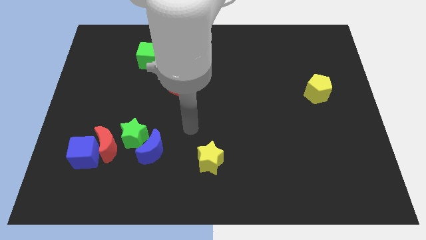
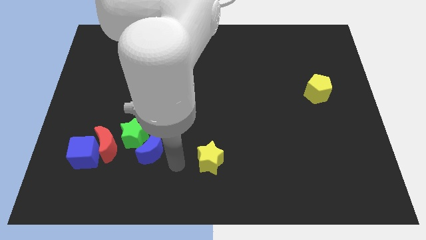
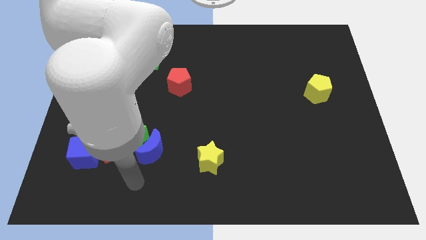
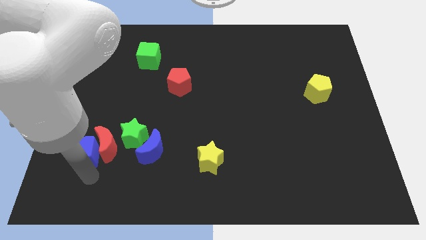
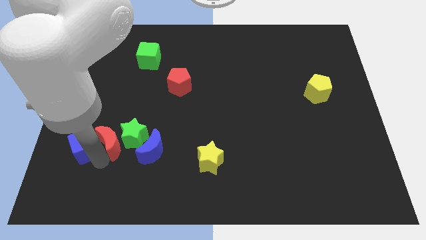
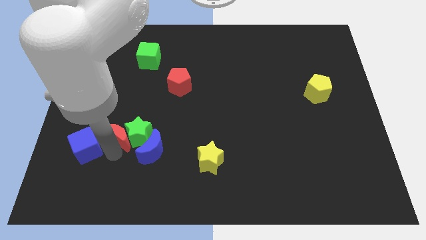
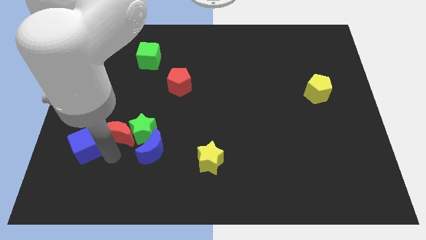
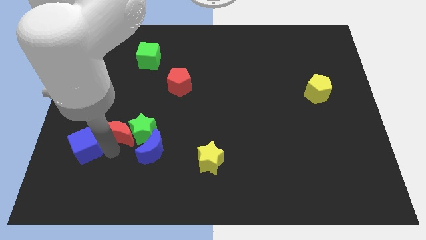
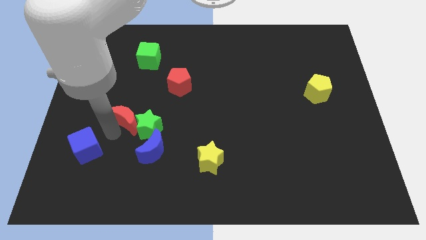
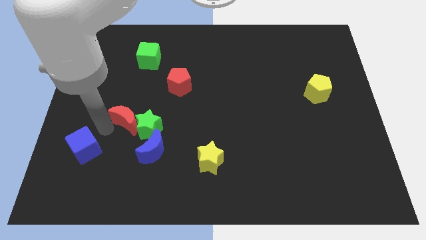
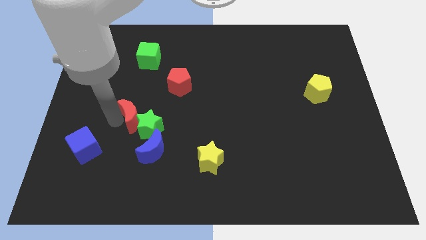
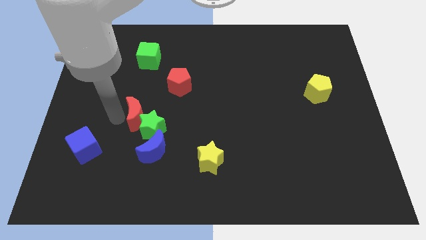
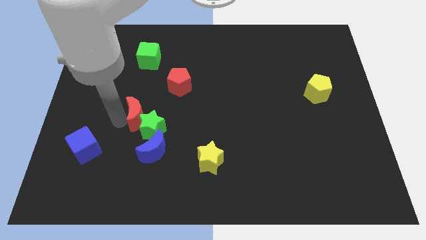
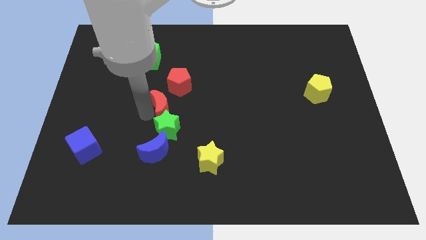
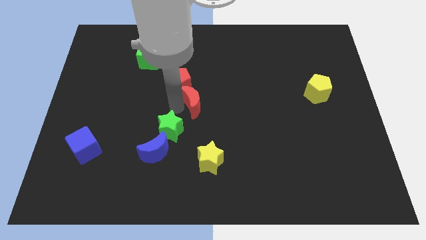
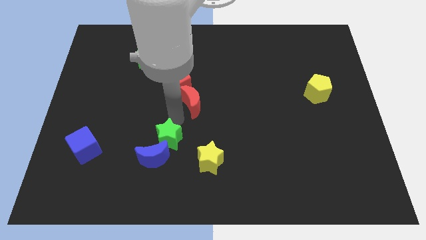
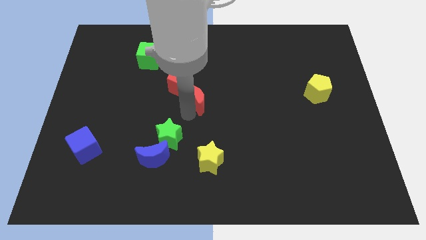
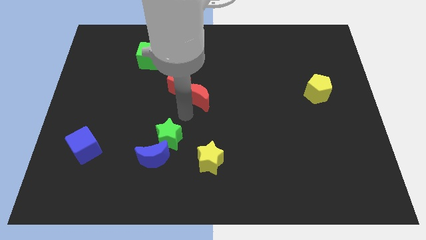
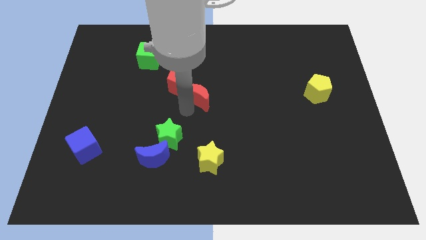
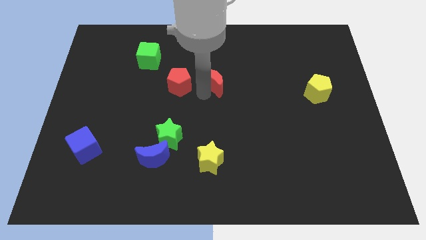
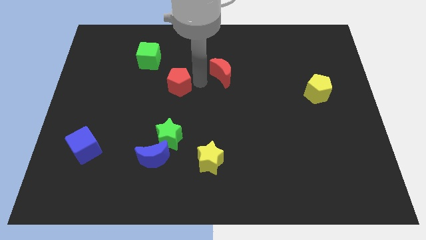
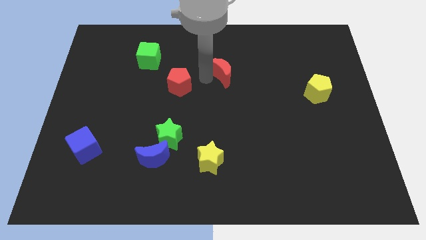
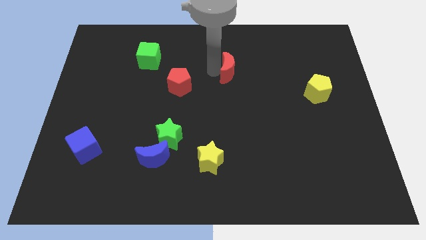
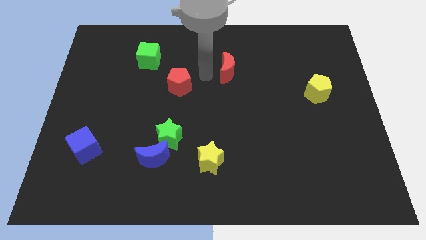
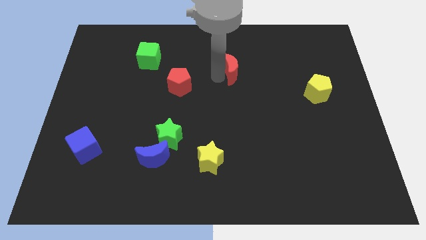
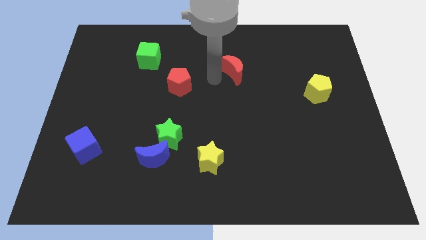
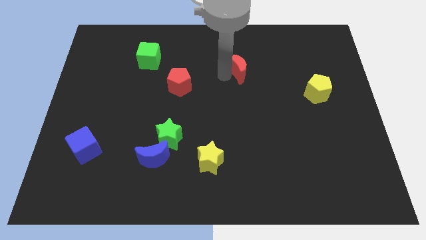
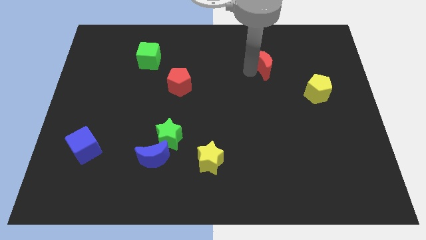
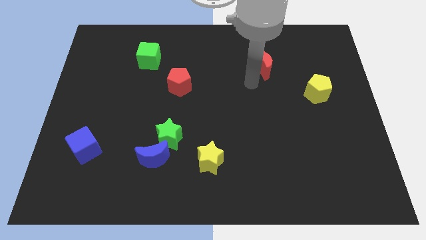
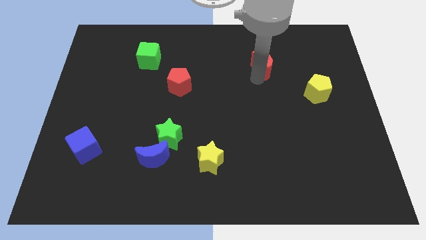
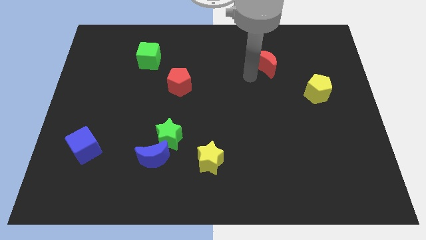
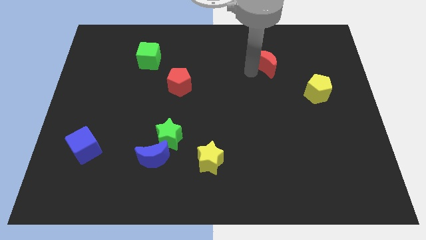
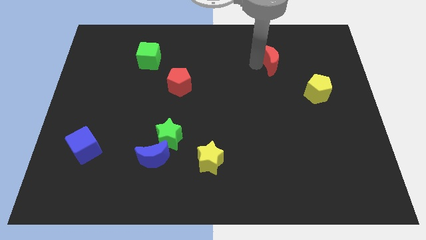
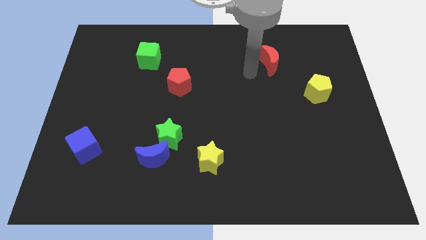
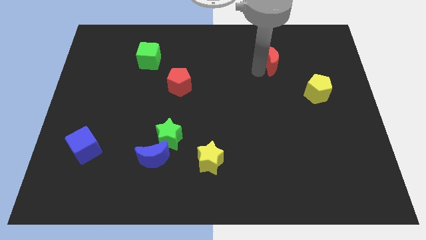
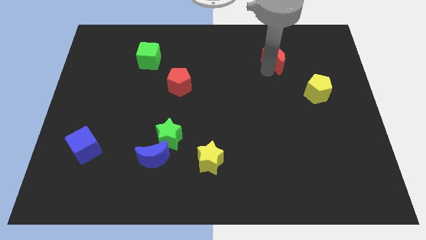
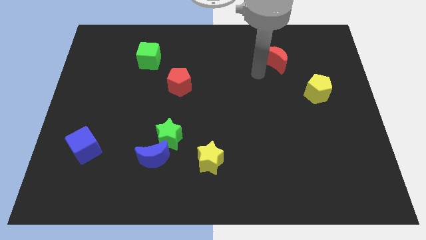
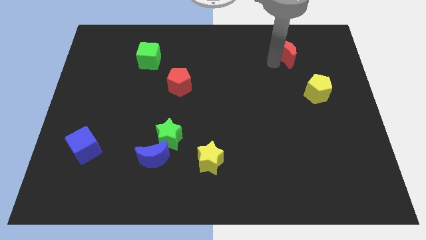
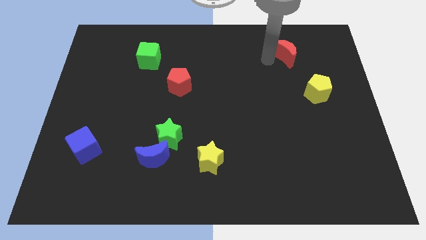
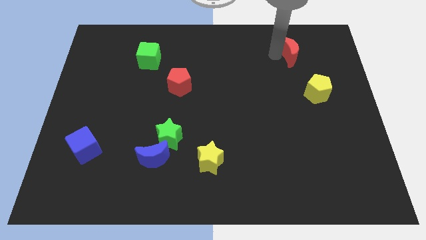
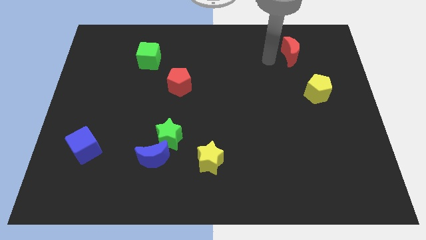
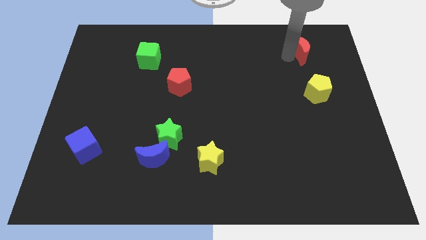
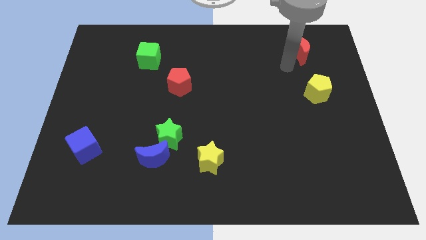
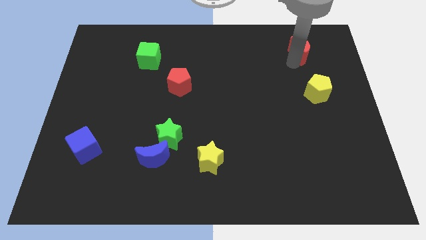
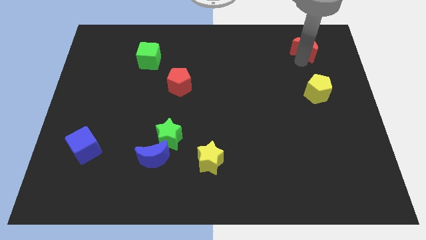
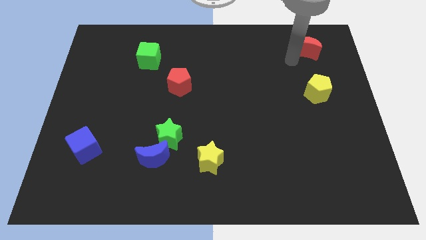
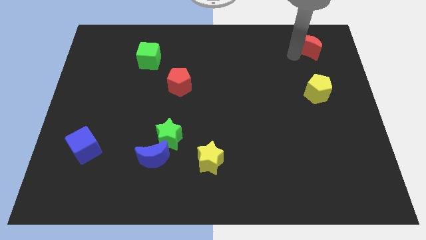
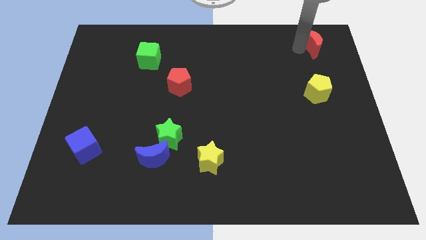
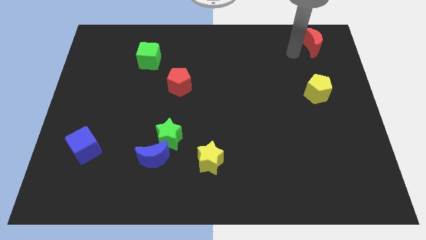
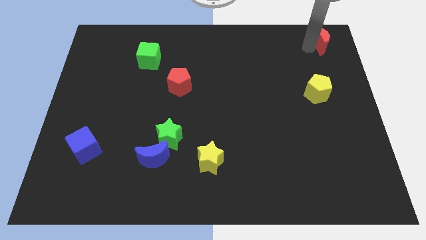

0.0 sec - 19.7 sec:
move the red moon to the top right of the board

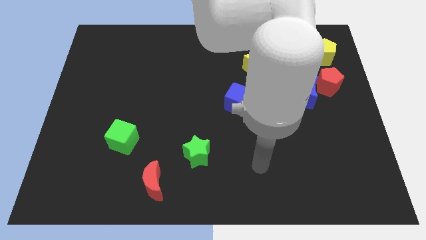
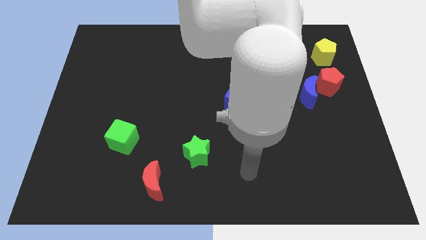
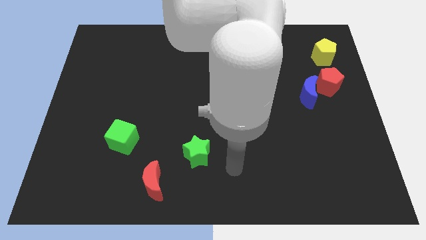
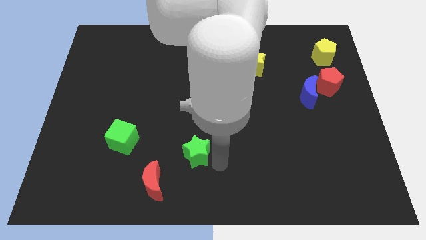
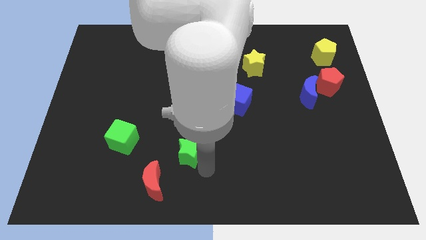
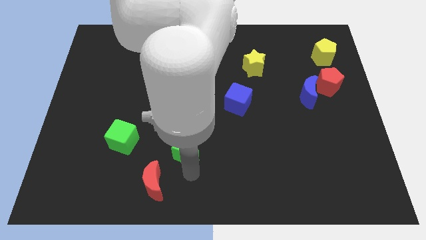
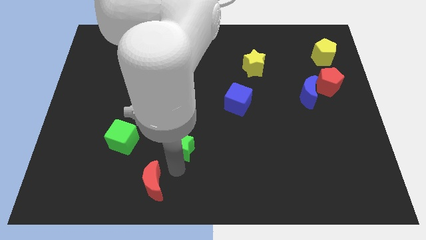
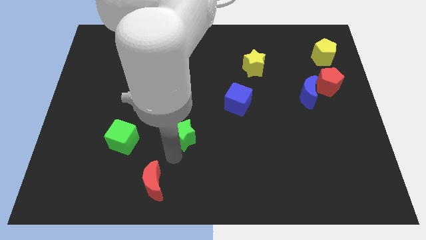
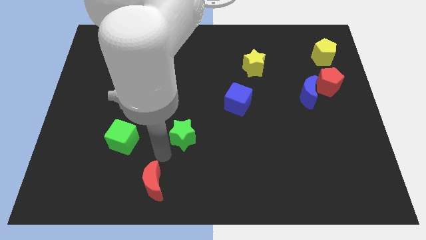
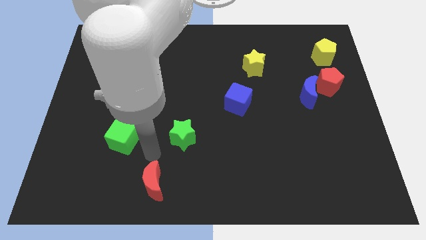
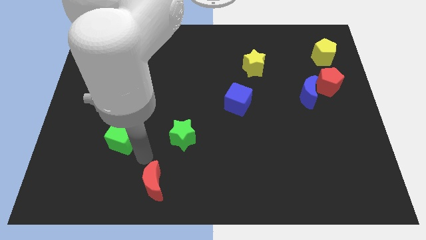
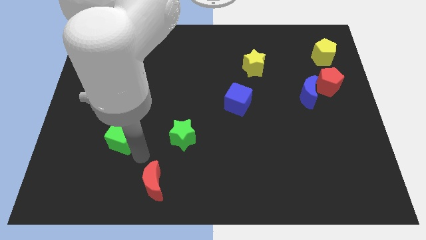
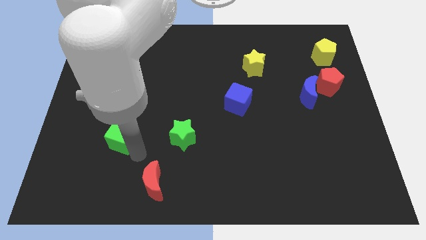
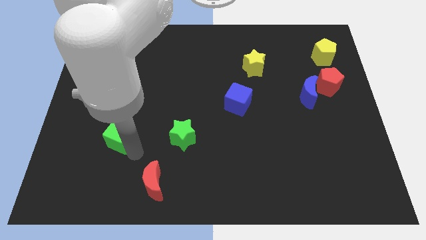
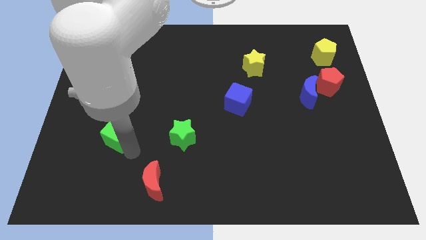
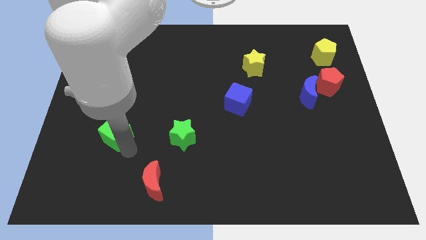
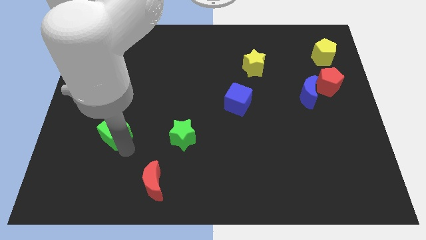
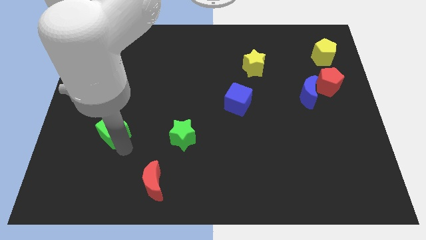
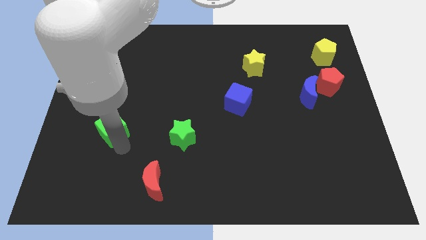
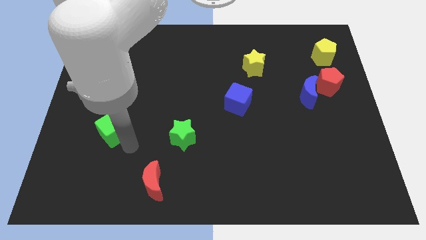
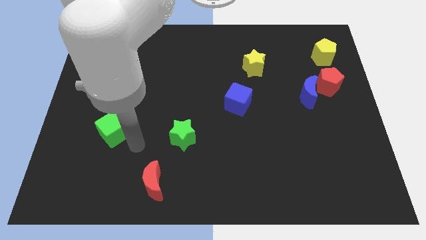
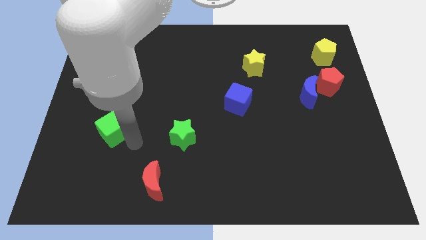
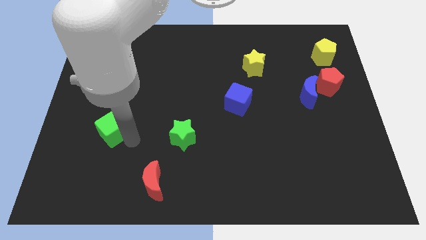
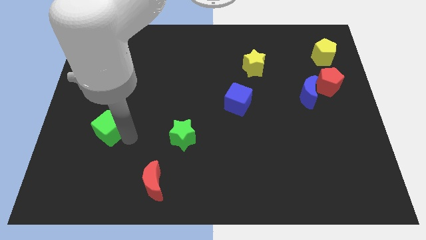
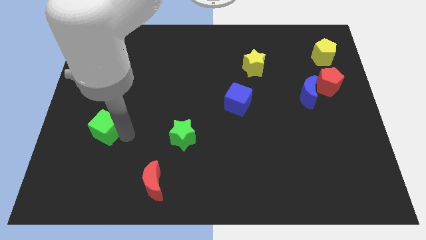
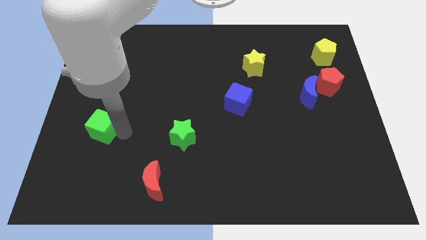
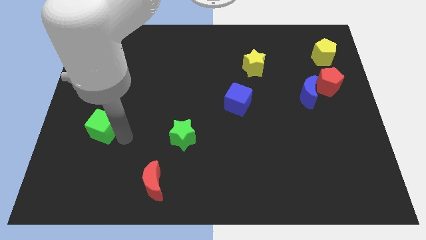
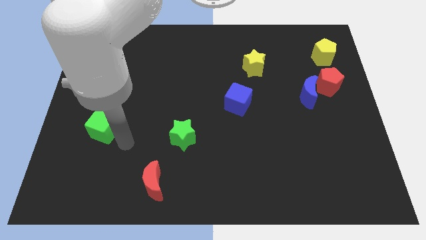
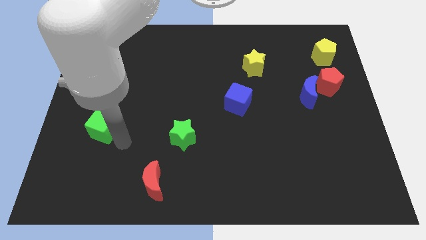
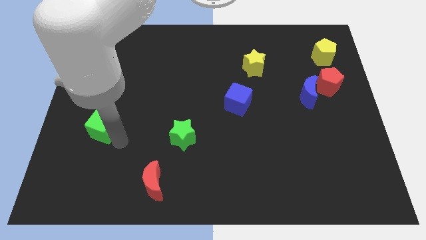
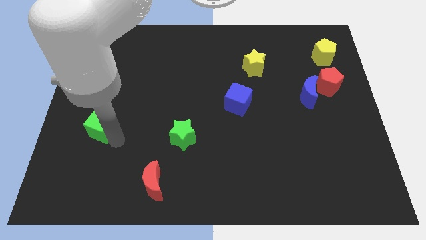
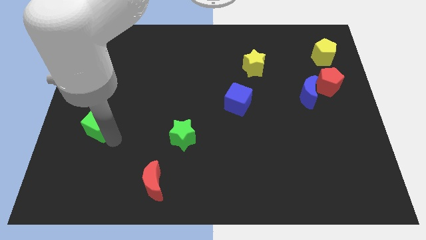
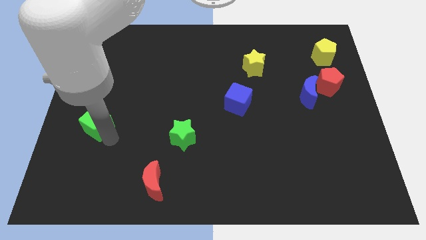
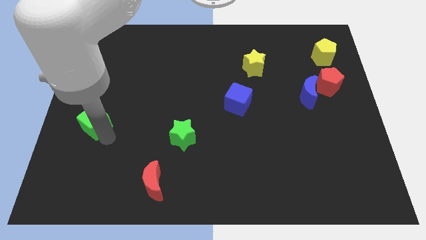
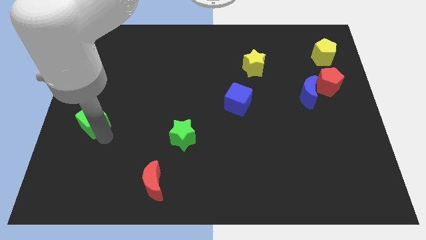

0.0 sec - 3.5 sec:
push the green cube to the left side of the board
